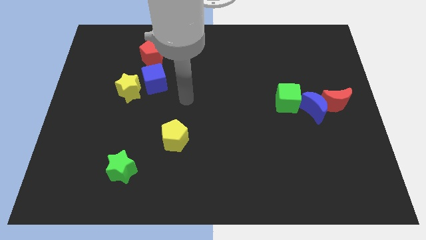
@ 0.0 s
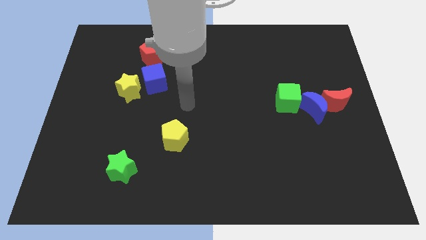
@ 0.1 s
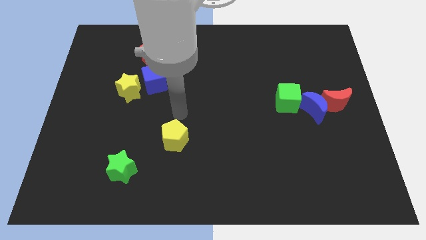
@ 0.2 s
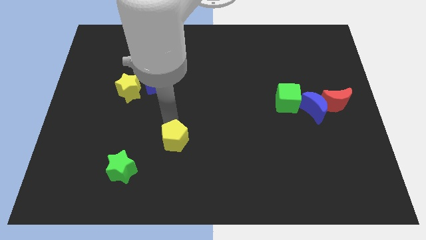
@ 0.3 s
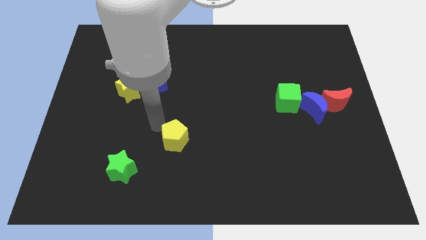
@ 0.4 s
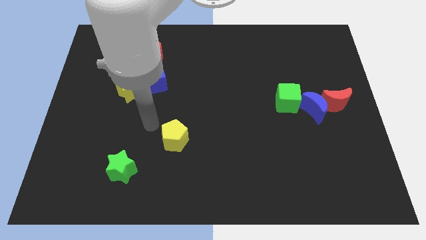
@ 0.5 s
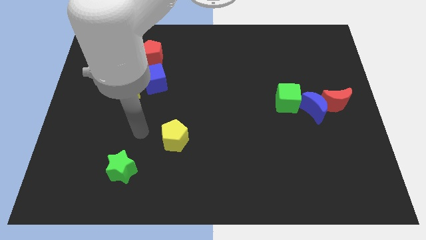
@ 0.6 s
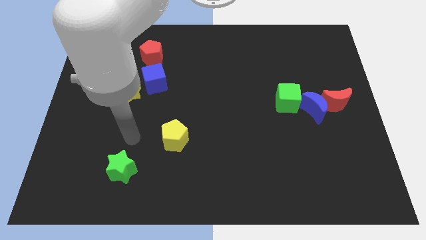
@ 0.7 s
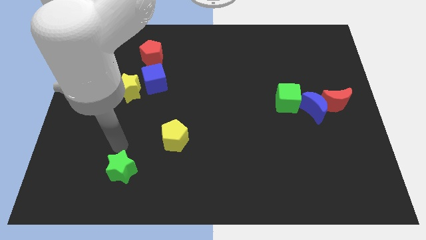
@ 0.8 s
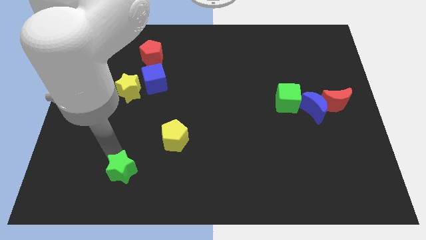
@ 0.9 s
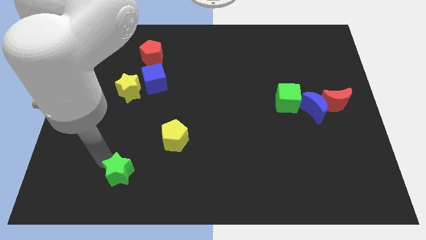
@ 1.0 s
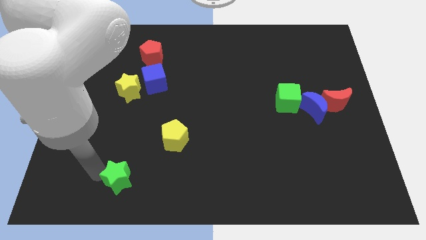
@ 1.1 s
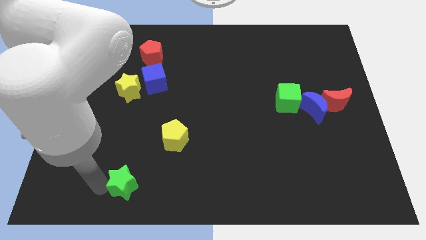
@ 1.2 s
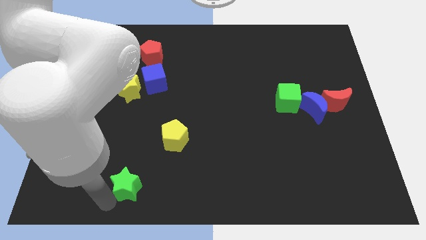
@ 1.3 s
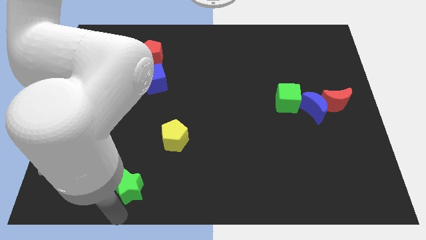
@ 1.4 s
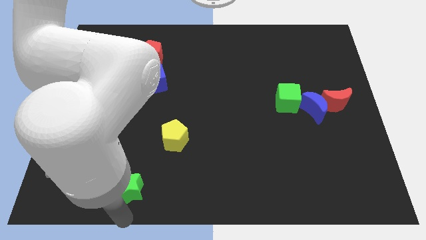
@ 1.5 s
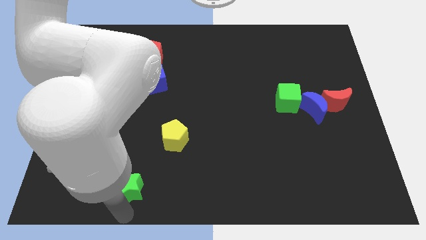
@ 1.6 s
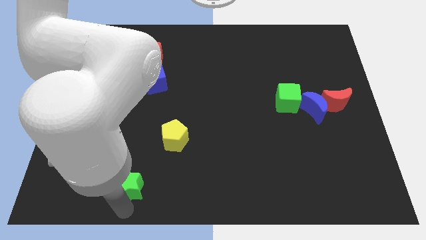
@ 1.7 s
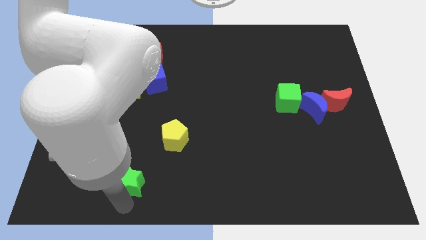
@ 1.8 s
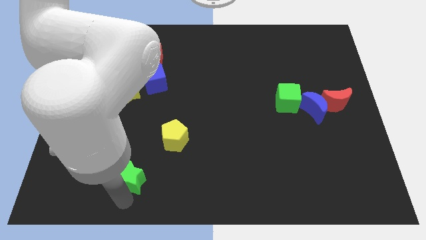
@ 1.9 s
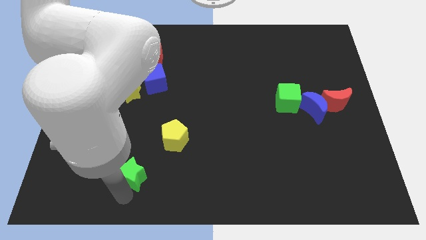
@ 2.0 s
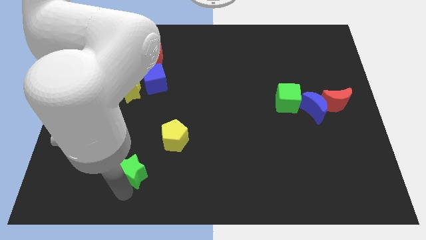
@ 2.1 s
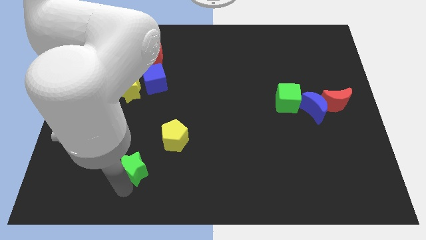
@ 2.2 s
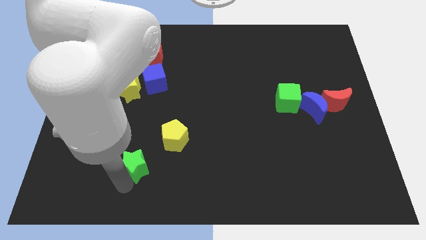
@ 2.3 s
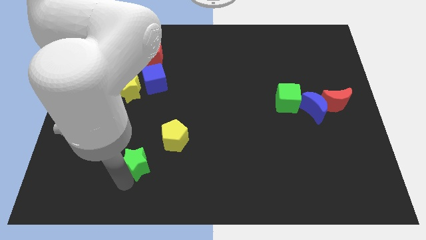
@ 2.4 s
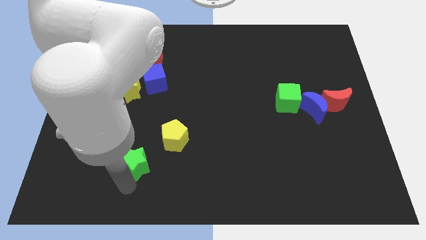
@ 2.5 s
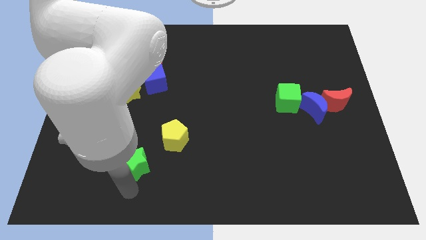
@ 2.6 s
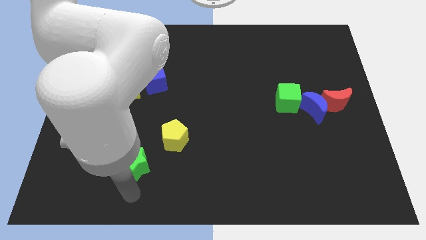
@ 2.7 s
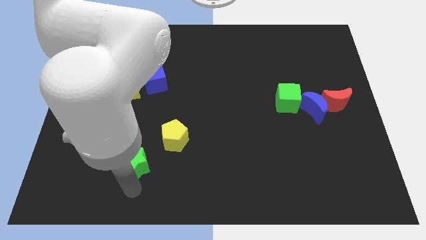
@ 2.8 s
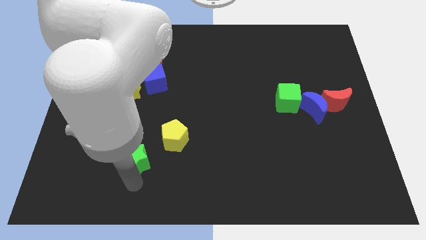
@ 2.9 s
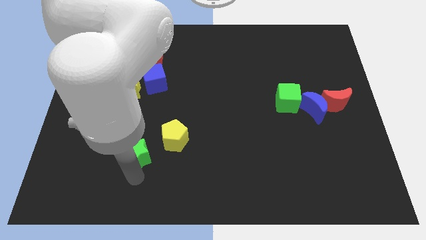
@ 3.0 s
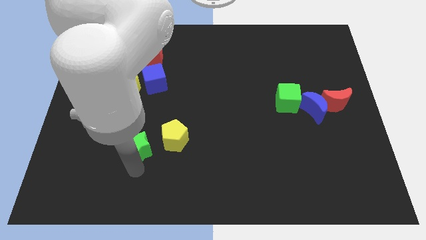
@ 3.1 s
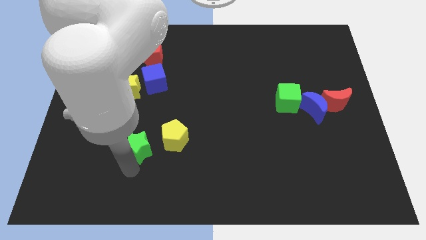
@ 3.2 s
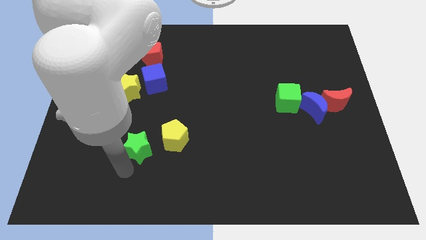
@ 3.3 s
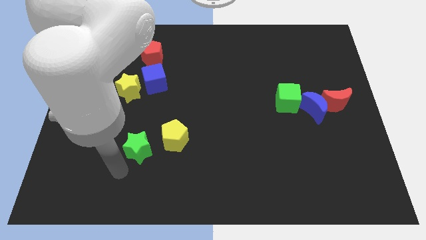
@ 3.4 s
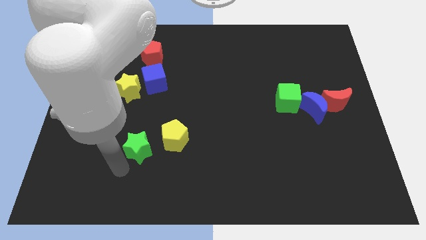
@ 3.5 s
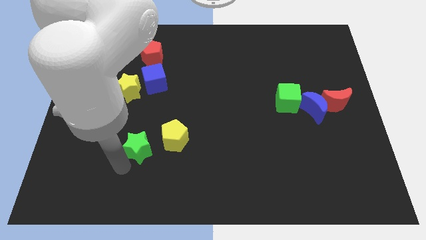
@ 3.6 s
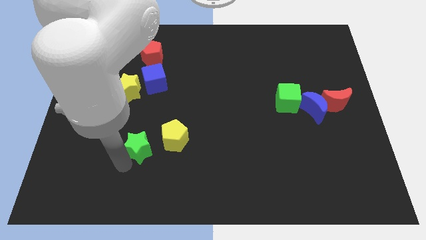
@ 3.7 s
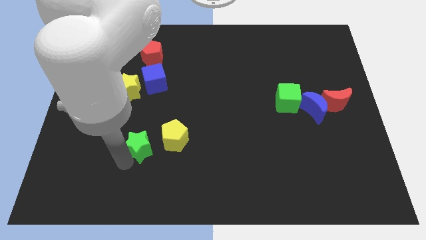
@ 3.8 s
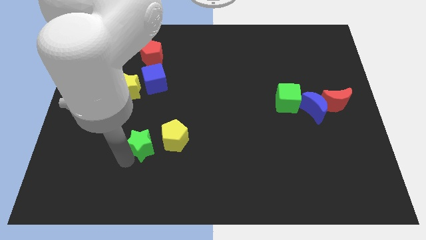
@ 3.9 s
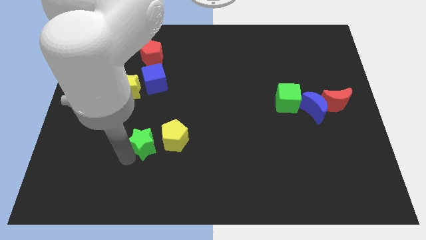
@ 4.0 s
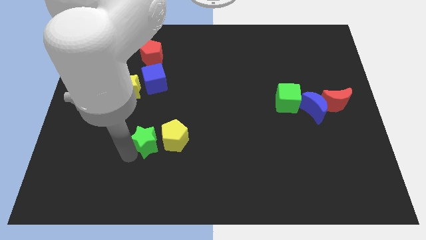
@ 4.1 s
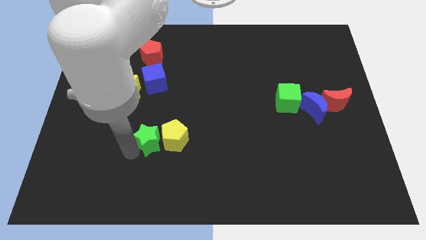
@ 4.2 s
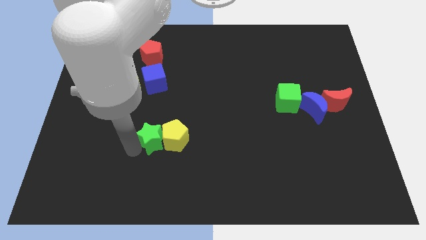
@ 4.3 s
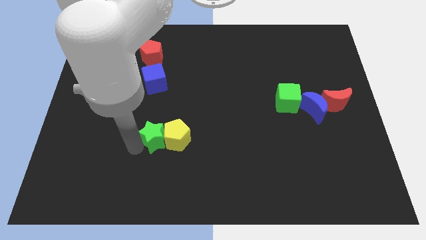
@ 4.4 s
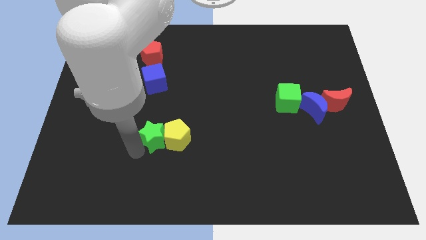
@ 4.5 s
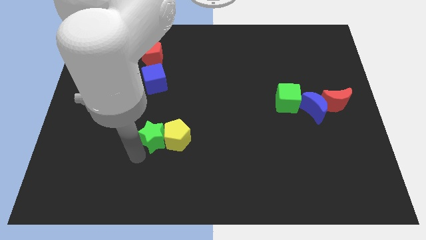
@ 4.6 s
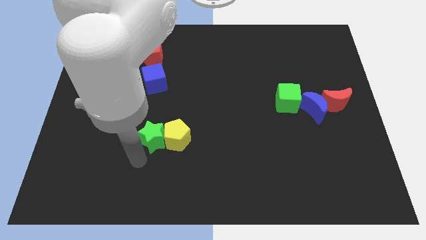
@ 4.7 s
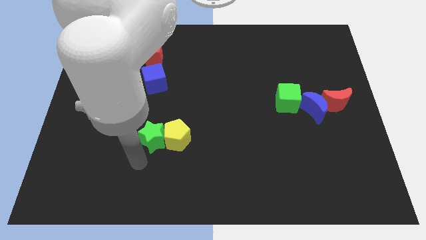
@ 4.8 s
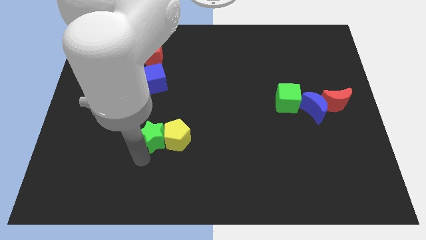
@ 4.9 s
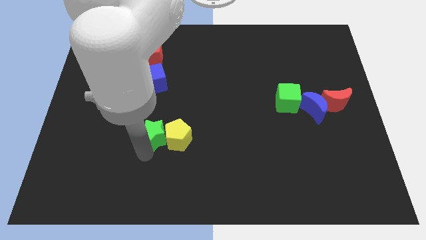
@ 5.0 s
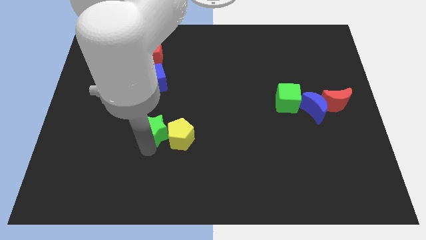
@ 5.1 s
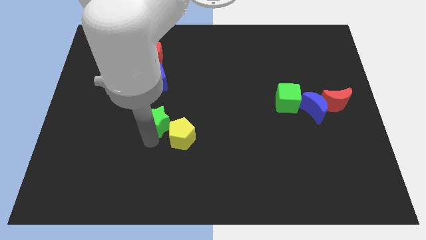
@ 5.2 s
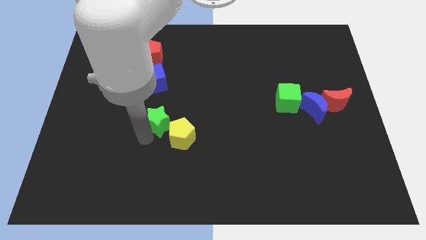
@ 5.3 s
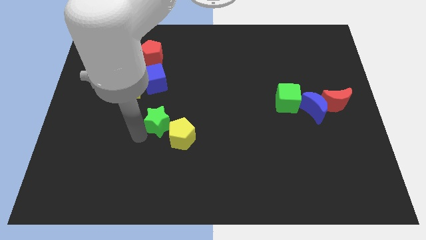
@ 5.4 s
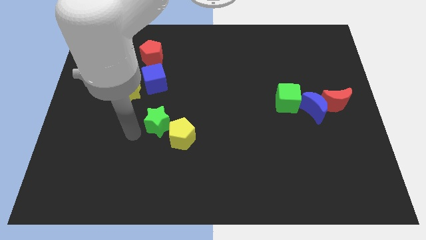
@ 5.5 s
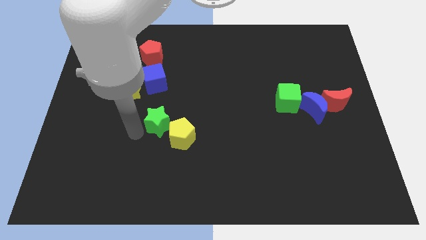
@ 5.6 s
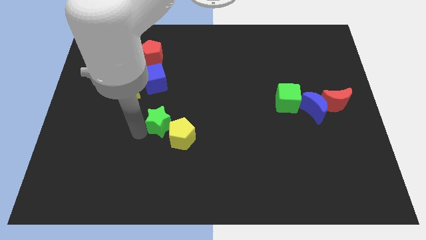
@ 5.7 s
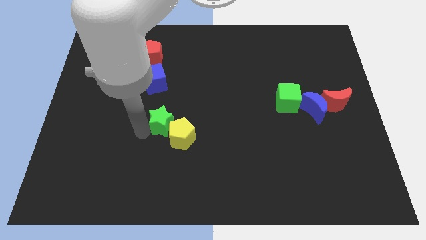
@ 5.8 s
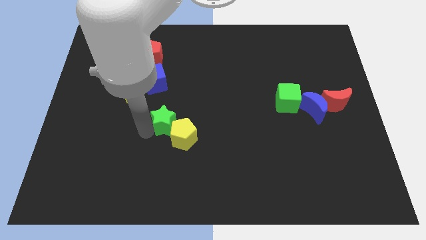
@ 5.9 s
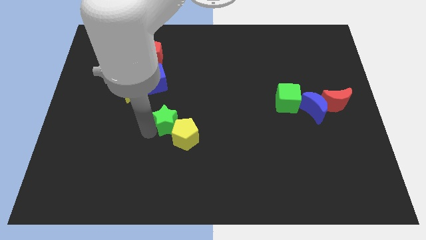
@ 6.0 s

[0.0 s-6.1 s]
move the green star to the center

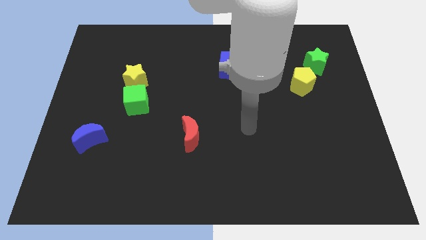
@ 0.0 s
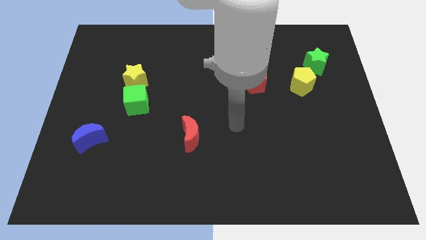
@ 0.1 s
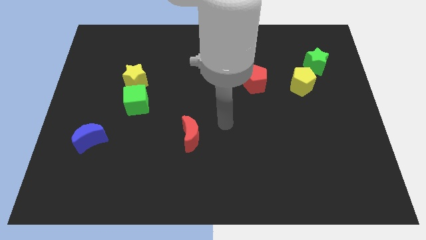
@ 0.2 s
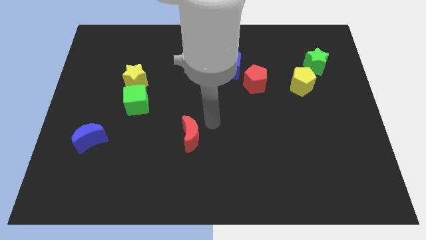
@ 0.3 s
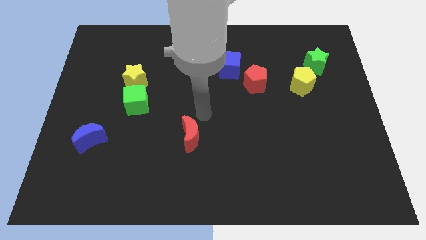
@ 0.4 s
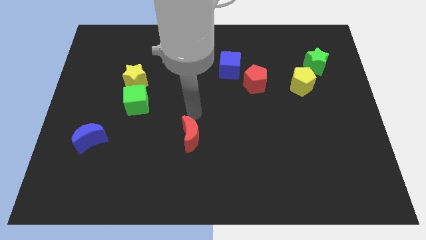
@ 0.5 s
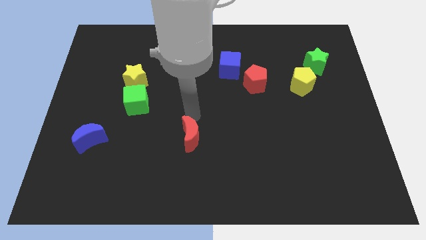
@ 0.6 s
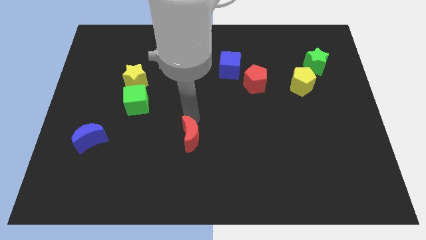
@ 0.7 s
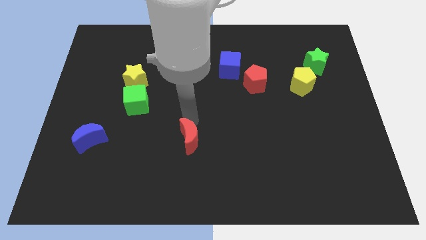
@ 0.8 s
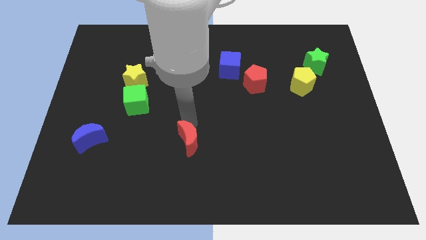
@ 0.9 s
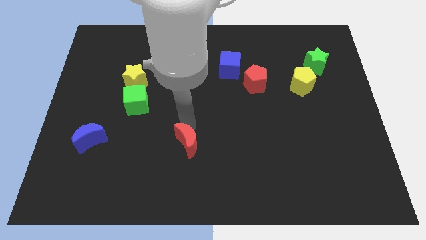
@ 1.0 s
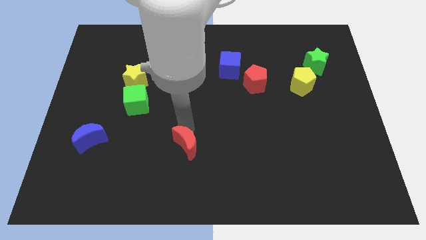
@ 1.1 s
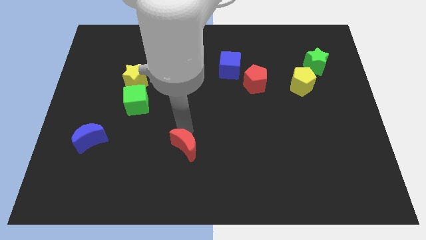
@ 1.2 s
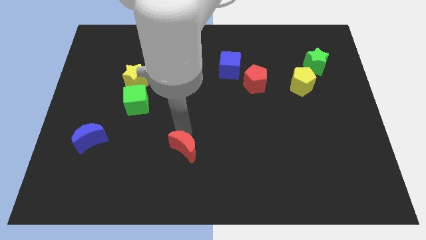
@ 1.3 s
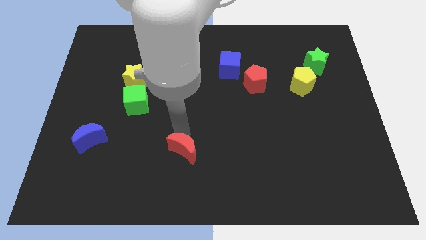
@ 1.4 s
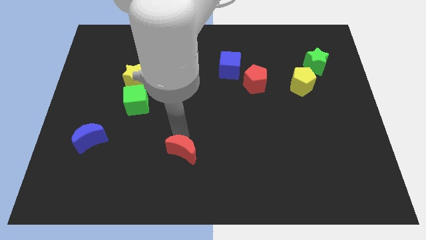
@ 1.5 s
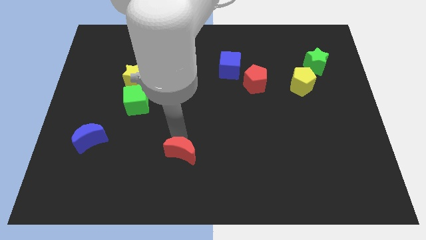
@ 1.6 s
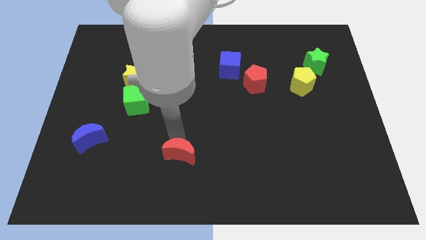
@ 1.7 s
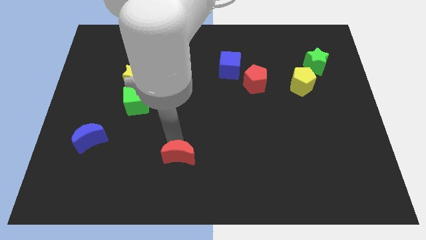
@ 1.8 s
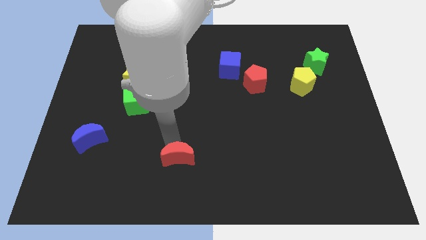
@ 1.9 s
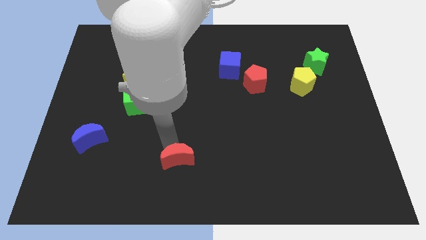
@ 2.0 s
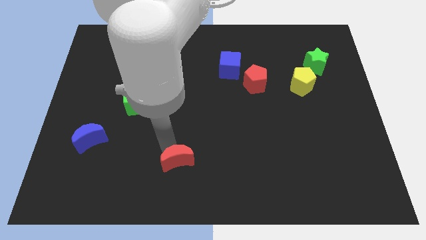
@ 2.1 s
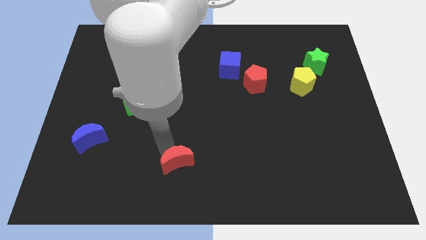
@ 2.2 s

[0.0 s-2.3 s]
push the red moon to the bottom
